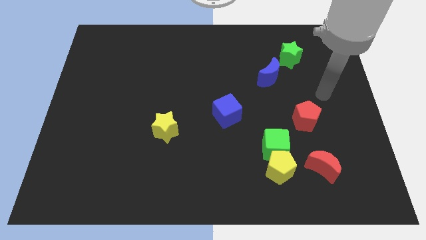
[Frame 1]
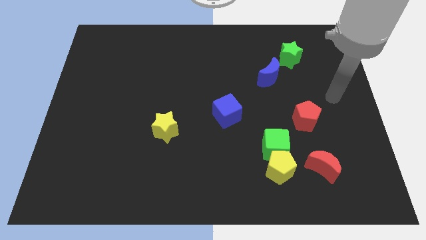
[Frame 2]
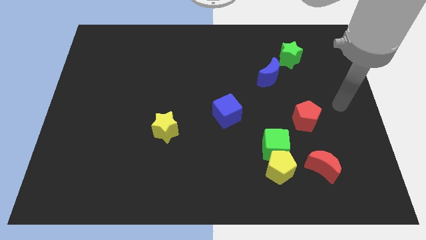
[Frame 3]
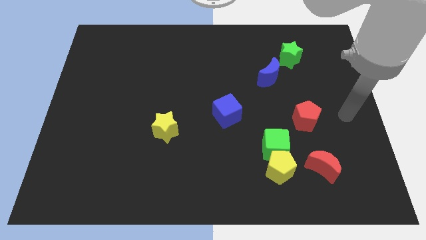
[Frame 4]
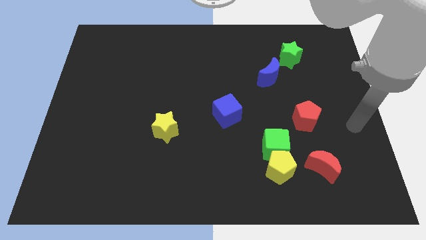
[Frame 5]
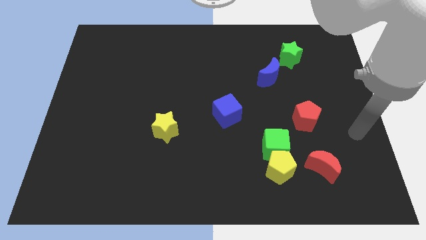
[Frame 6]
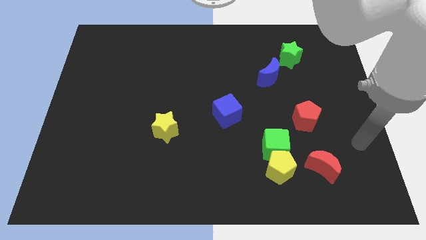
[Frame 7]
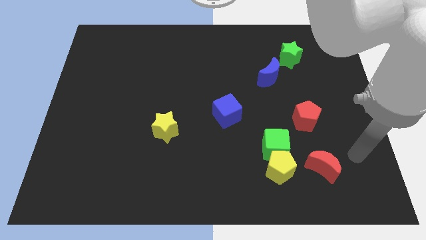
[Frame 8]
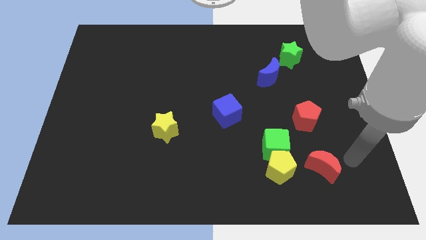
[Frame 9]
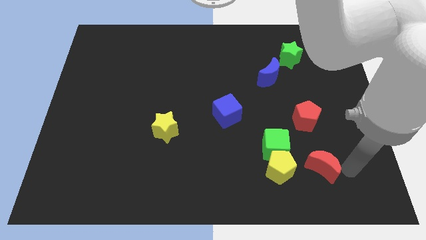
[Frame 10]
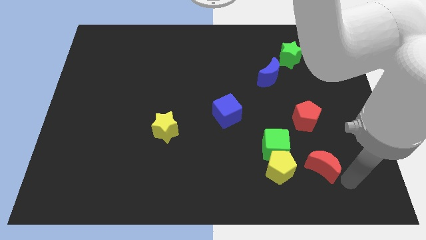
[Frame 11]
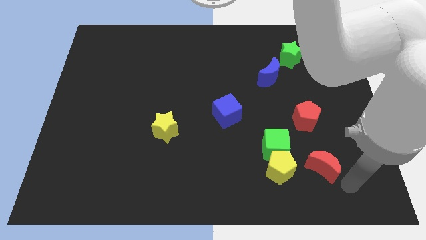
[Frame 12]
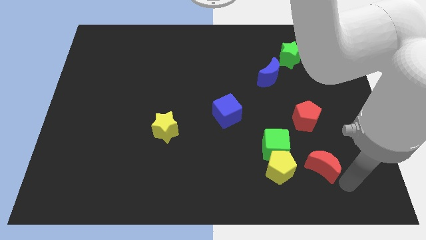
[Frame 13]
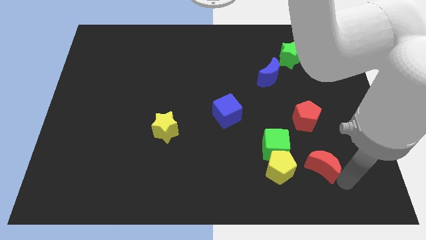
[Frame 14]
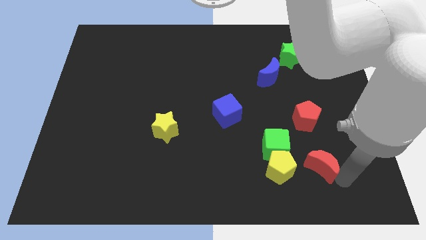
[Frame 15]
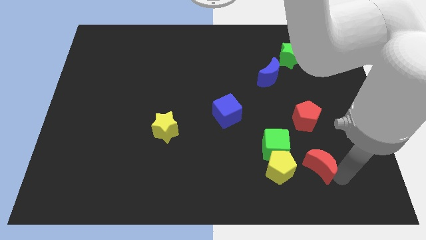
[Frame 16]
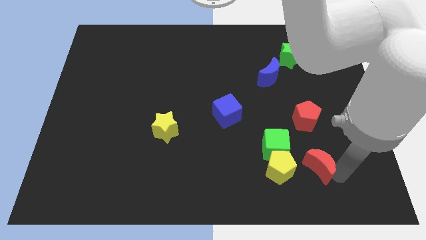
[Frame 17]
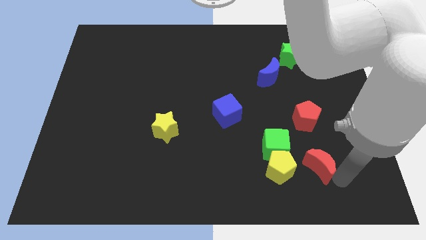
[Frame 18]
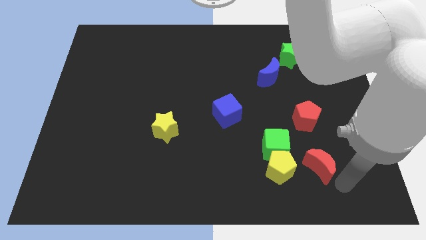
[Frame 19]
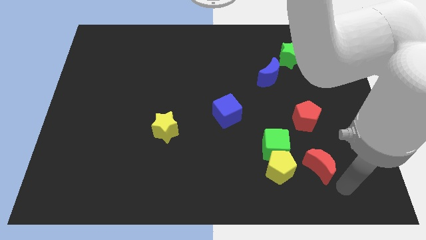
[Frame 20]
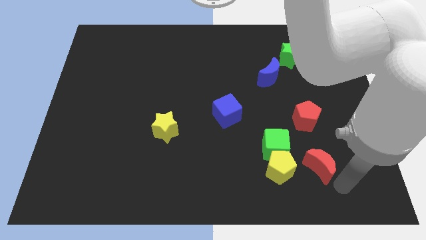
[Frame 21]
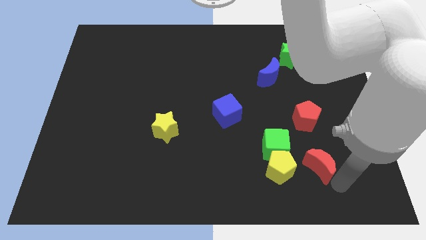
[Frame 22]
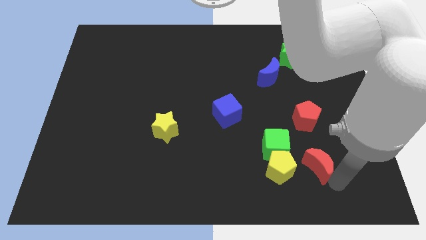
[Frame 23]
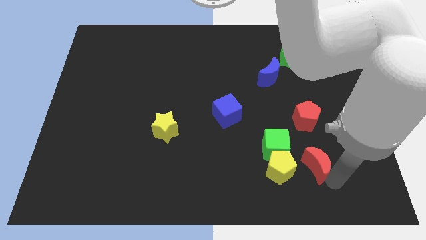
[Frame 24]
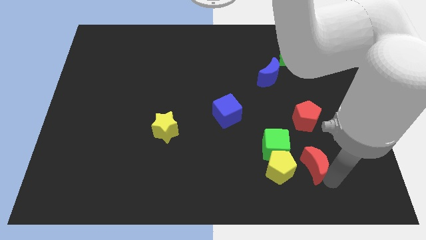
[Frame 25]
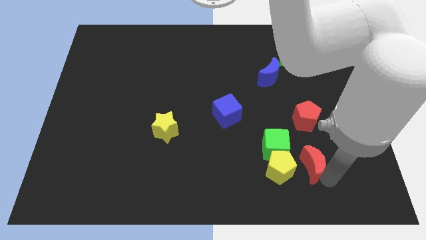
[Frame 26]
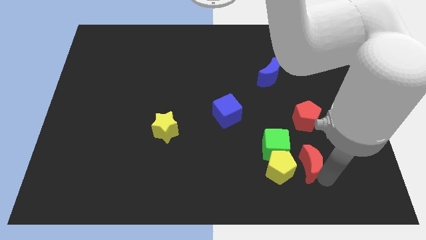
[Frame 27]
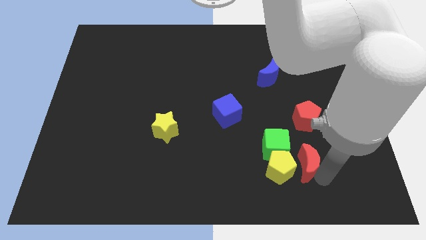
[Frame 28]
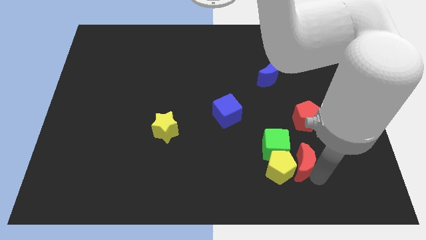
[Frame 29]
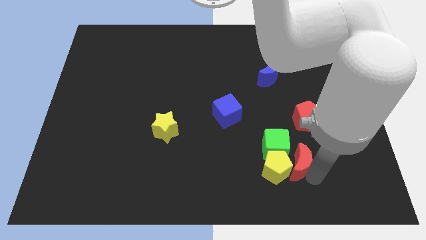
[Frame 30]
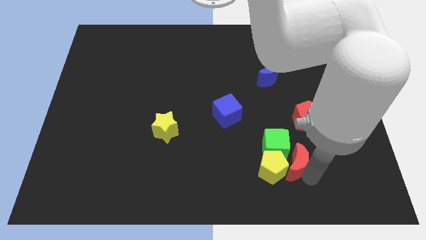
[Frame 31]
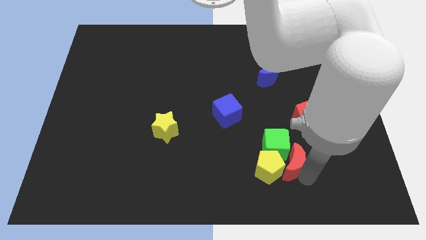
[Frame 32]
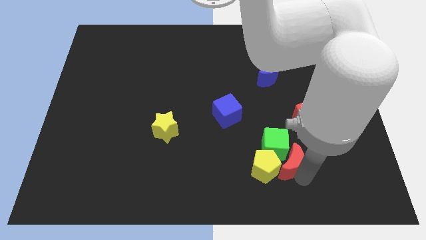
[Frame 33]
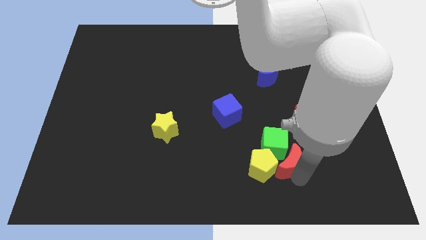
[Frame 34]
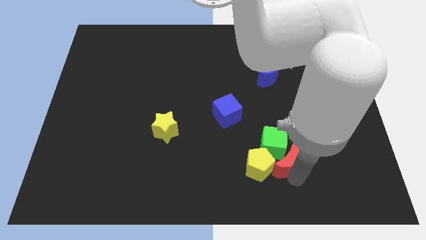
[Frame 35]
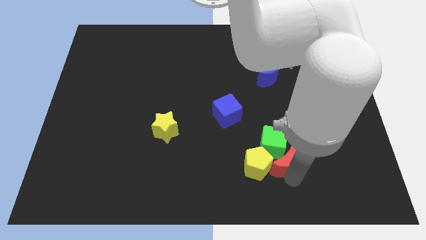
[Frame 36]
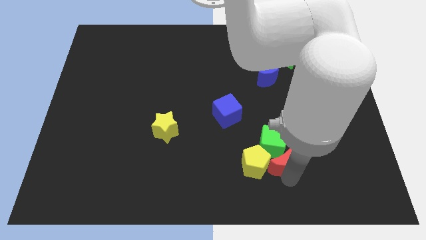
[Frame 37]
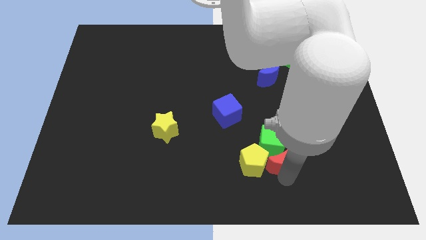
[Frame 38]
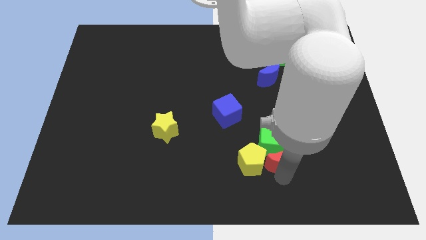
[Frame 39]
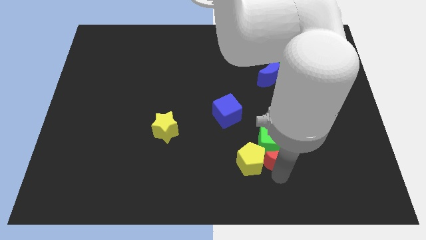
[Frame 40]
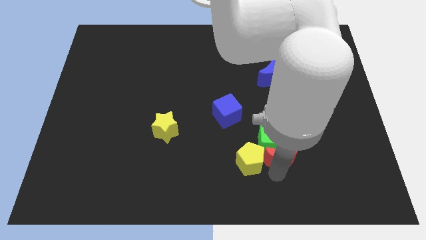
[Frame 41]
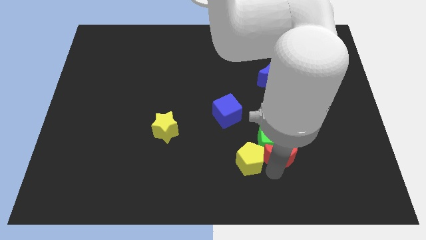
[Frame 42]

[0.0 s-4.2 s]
slide the red moon diagonally up and left somewhat

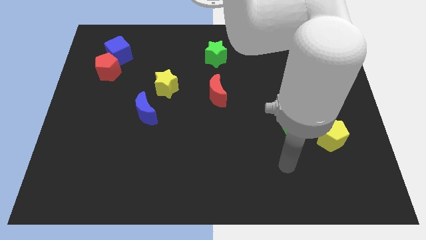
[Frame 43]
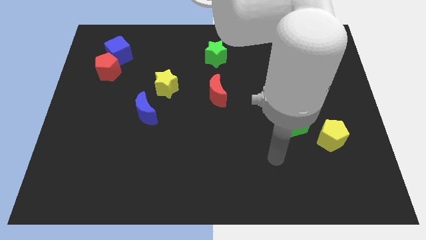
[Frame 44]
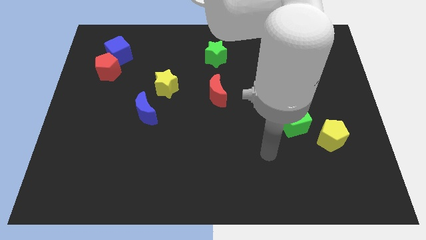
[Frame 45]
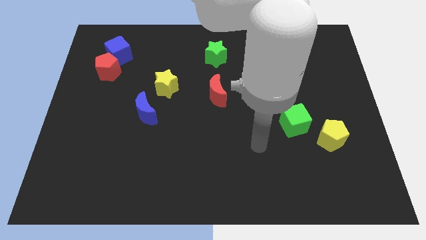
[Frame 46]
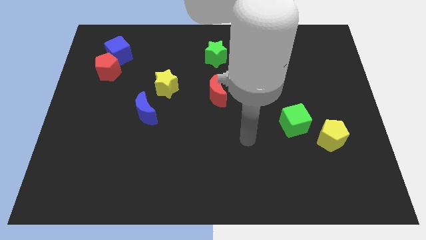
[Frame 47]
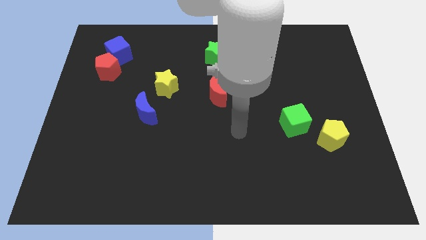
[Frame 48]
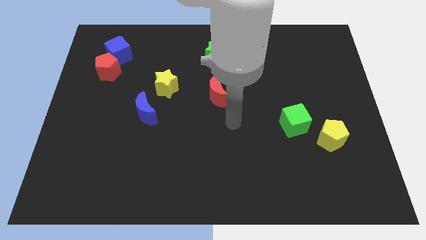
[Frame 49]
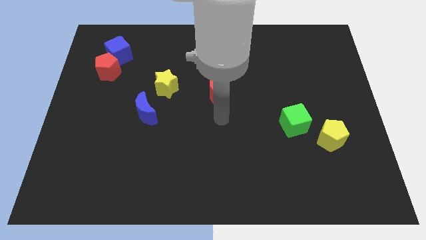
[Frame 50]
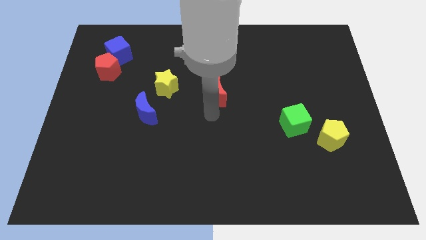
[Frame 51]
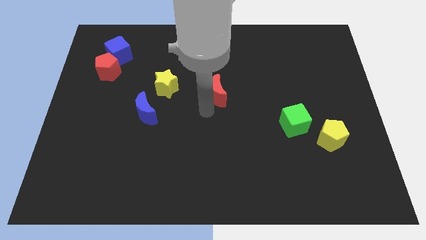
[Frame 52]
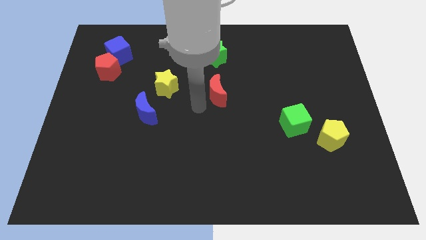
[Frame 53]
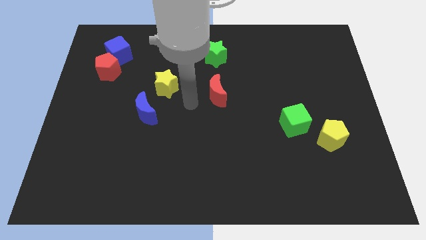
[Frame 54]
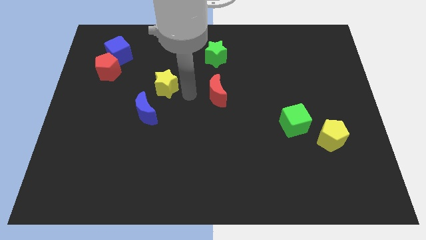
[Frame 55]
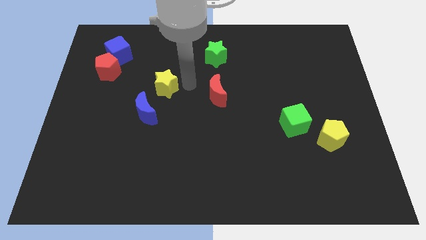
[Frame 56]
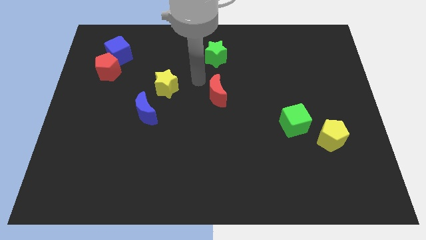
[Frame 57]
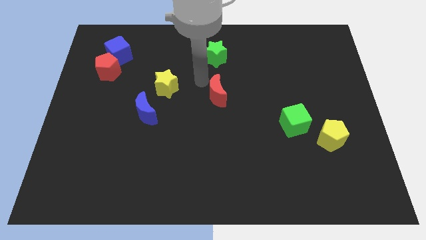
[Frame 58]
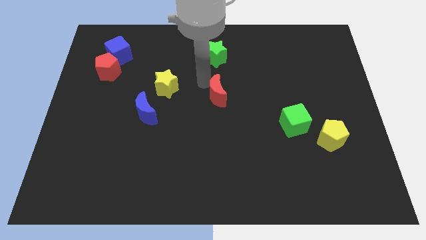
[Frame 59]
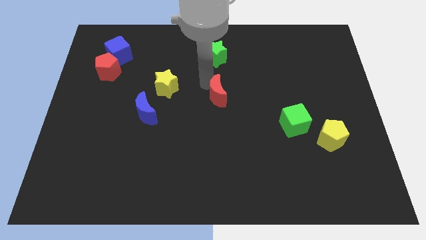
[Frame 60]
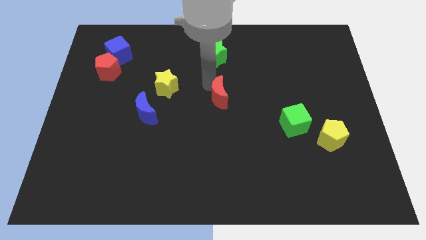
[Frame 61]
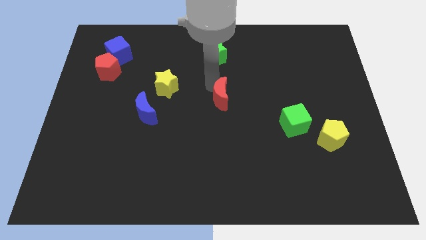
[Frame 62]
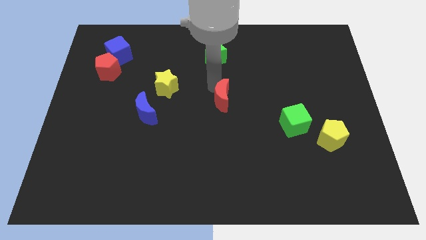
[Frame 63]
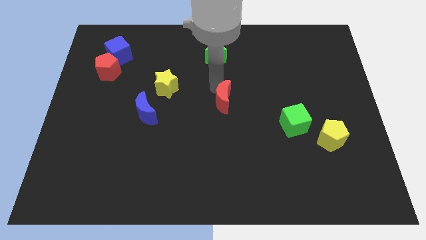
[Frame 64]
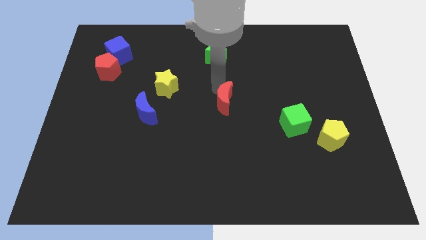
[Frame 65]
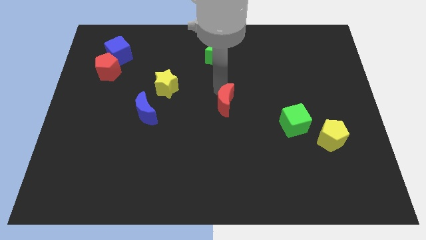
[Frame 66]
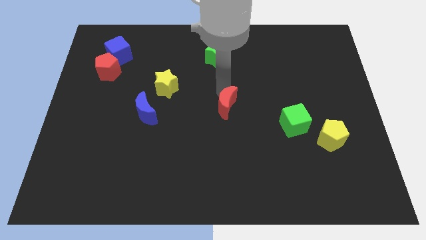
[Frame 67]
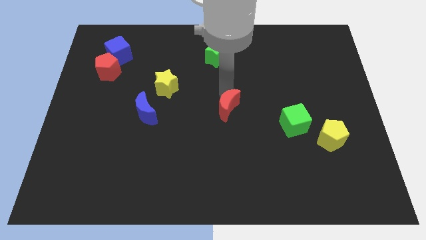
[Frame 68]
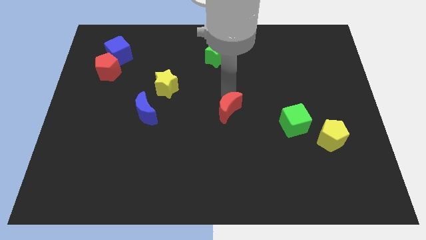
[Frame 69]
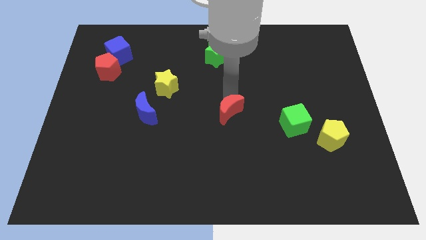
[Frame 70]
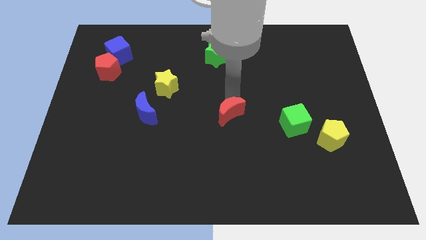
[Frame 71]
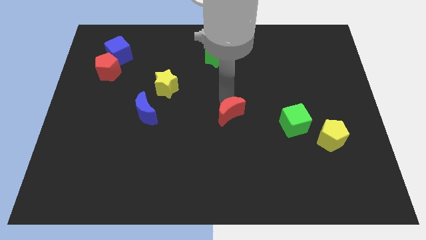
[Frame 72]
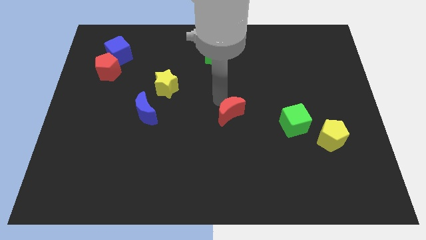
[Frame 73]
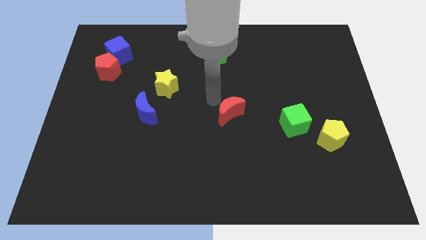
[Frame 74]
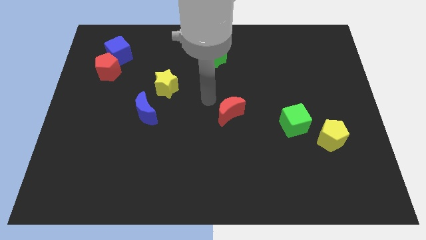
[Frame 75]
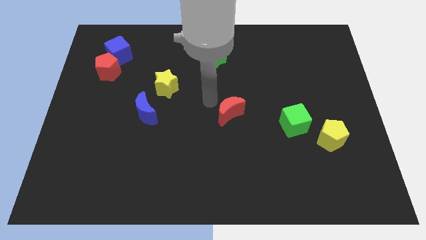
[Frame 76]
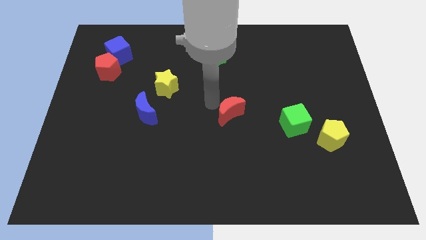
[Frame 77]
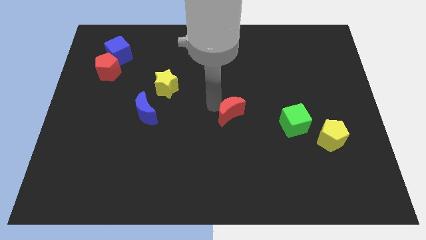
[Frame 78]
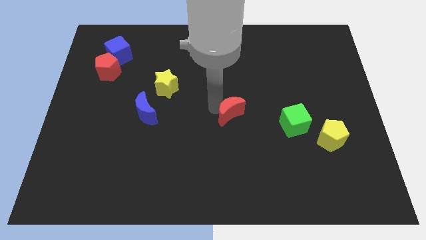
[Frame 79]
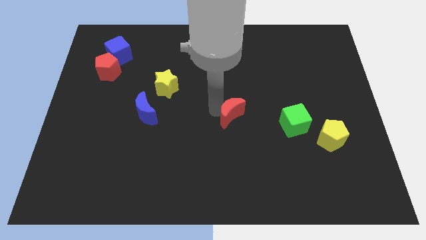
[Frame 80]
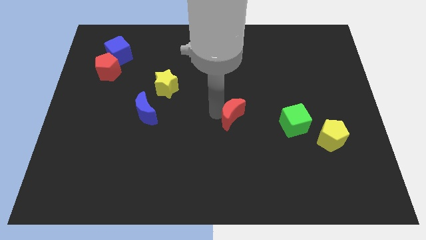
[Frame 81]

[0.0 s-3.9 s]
slide the red moon downwards and right diagonally a bit
